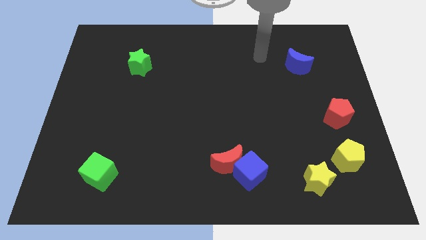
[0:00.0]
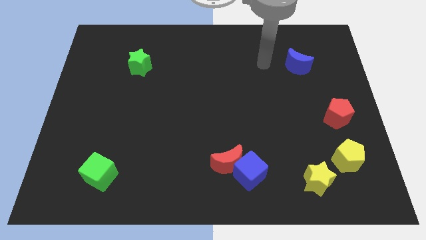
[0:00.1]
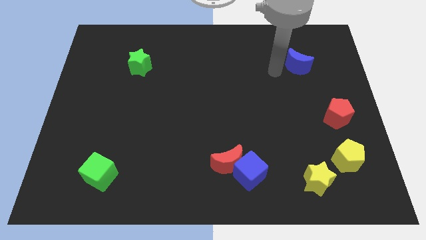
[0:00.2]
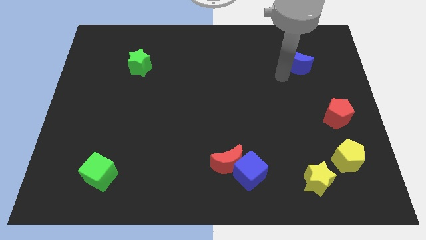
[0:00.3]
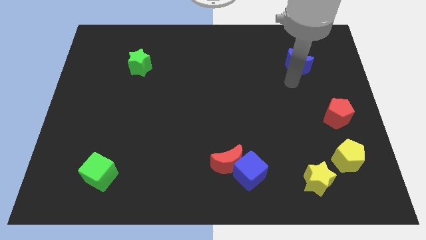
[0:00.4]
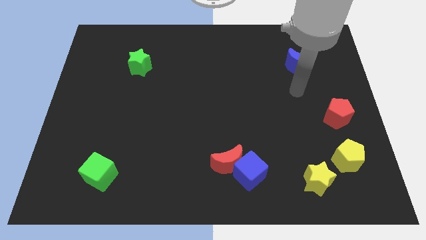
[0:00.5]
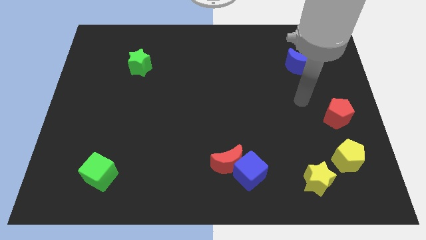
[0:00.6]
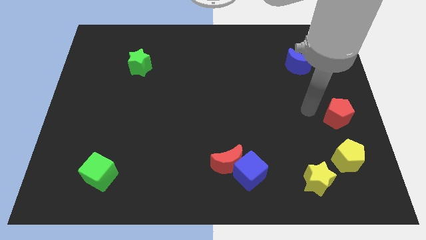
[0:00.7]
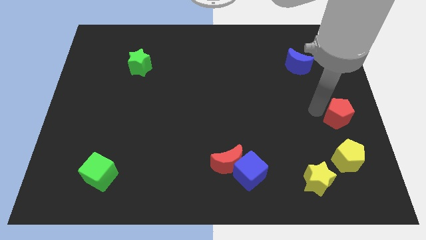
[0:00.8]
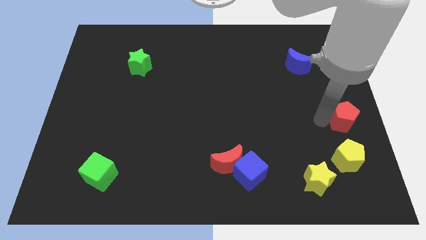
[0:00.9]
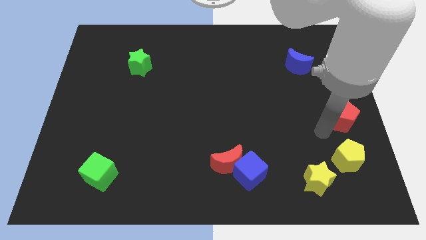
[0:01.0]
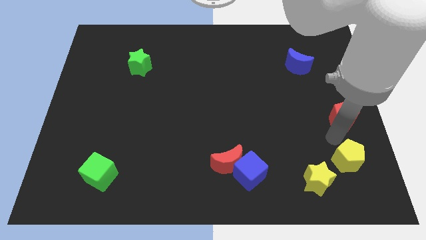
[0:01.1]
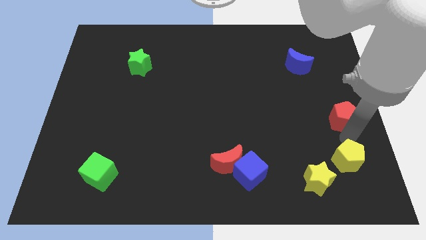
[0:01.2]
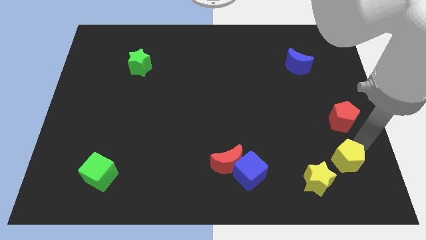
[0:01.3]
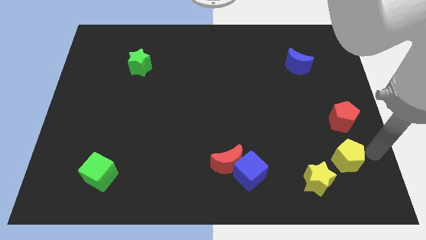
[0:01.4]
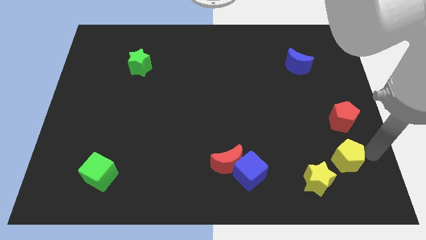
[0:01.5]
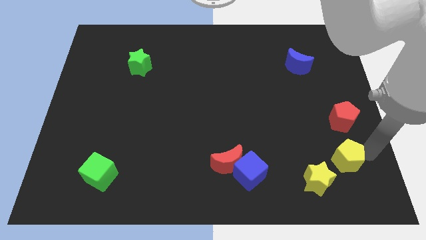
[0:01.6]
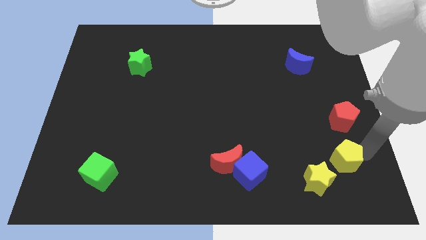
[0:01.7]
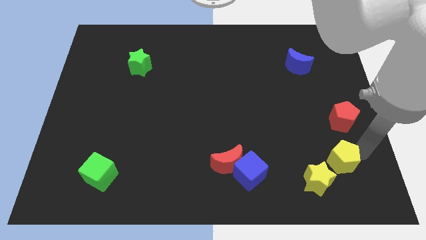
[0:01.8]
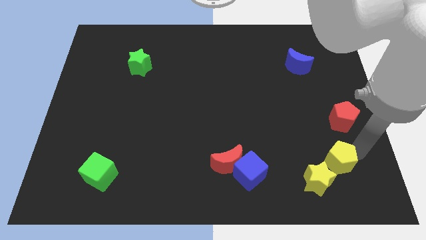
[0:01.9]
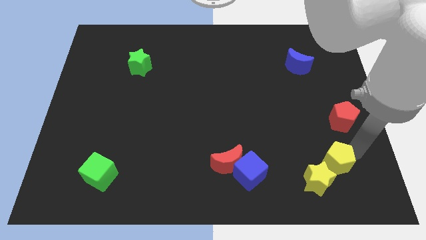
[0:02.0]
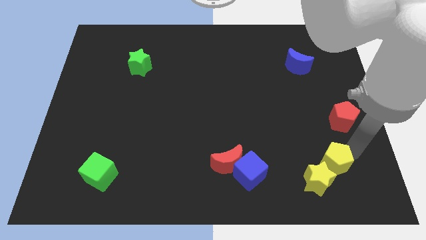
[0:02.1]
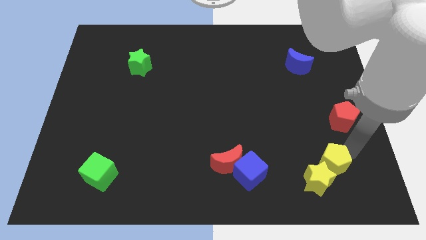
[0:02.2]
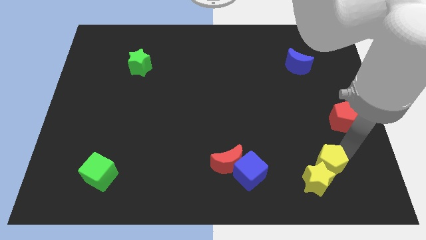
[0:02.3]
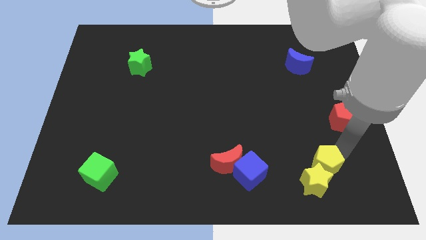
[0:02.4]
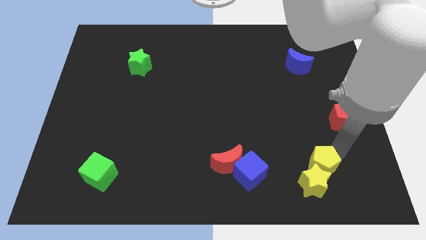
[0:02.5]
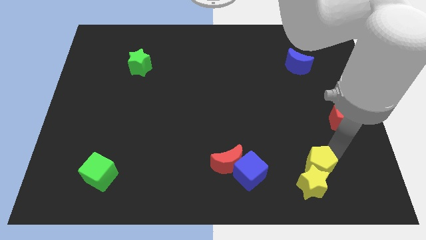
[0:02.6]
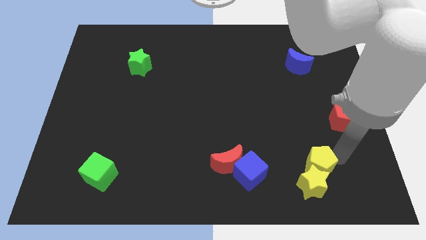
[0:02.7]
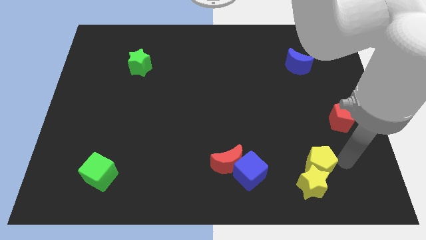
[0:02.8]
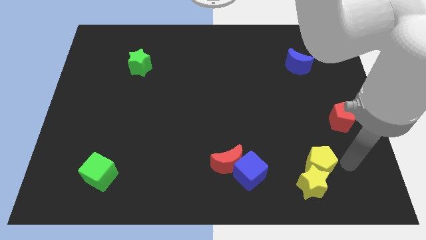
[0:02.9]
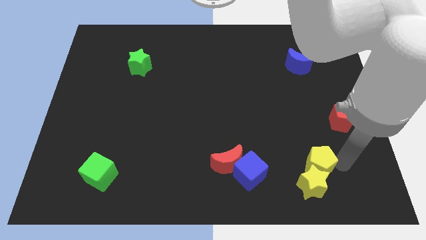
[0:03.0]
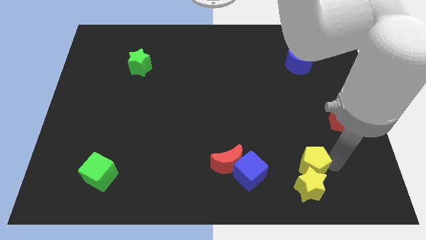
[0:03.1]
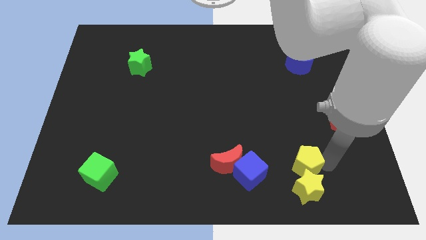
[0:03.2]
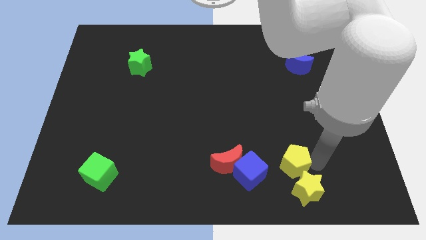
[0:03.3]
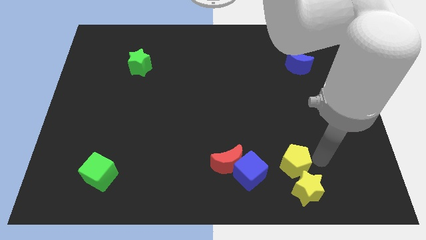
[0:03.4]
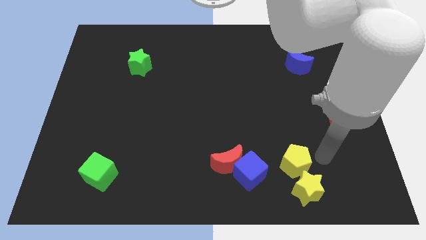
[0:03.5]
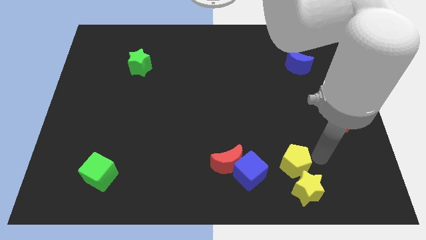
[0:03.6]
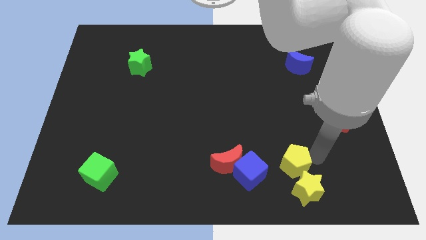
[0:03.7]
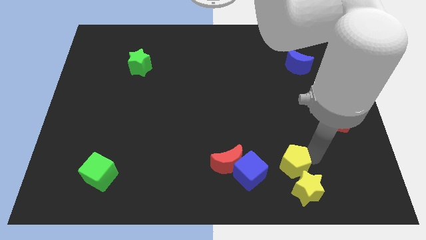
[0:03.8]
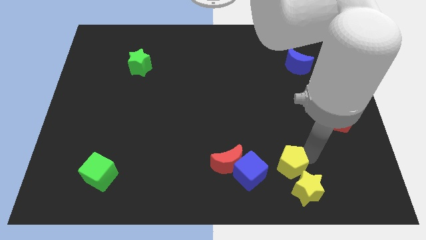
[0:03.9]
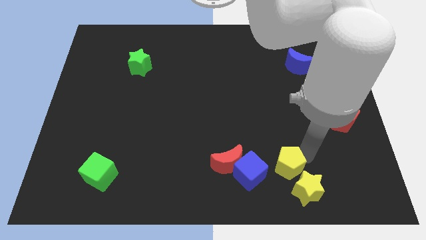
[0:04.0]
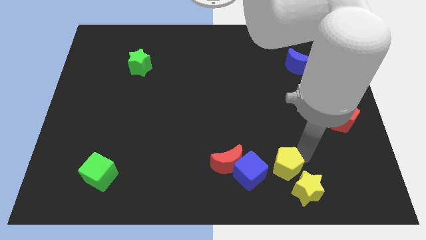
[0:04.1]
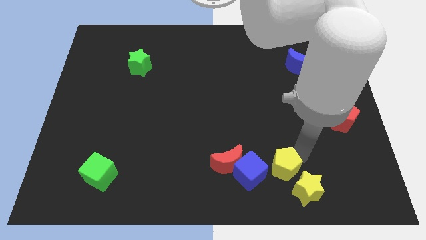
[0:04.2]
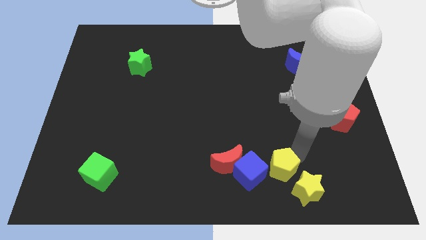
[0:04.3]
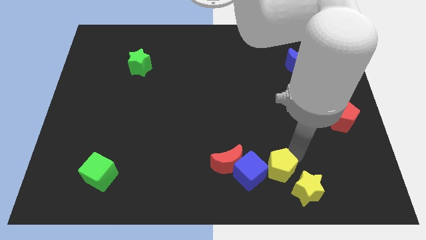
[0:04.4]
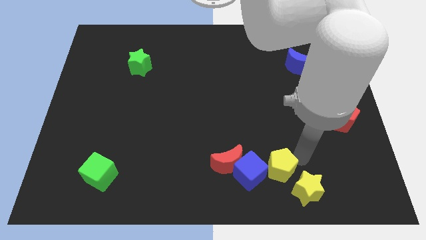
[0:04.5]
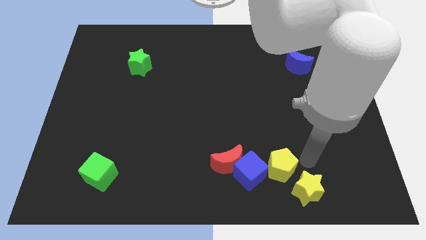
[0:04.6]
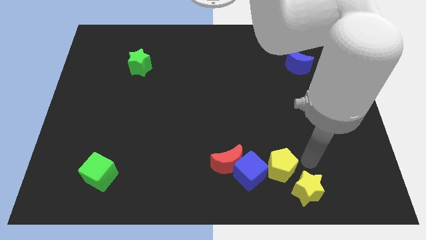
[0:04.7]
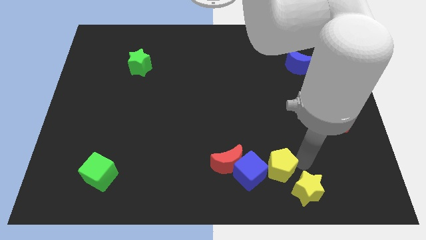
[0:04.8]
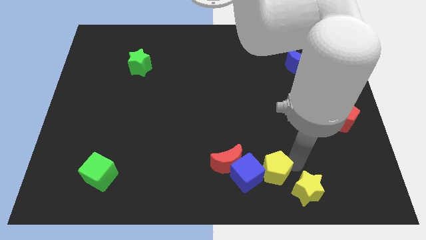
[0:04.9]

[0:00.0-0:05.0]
push the yellow pentagon to the blue cube

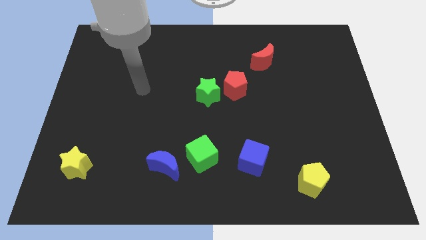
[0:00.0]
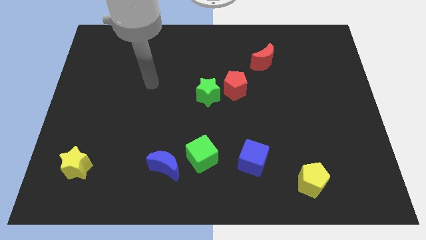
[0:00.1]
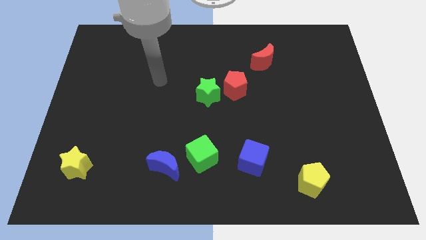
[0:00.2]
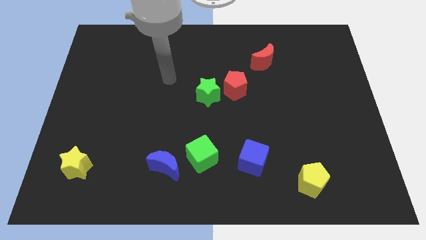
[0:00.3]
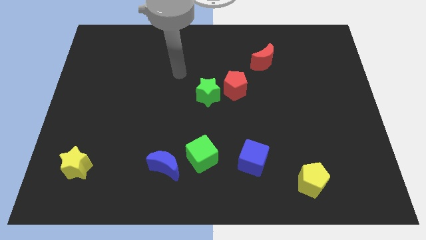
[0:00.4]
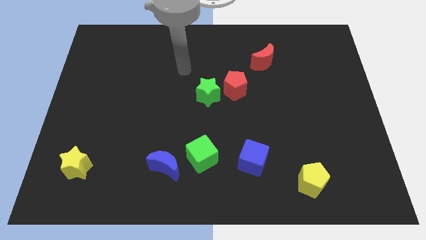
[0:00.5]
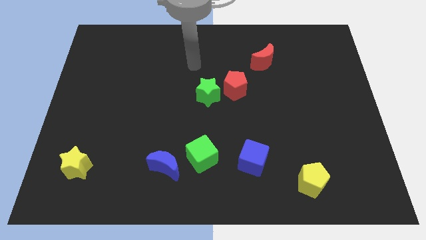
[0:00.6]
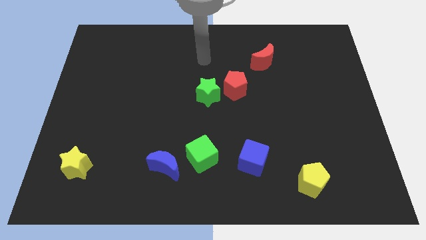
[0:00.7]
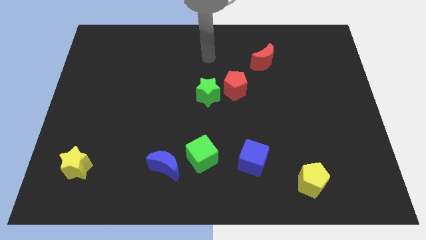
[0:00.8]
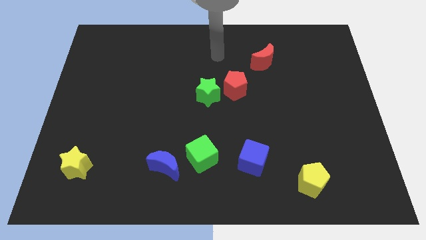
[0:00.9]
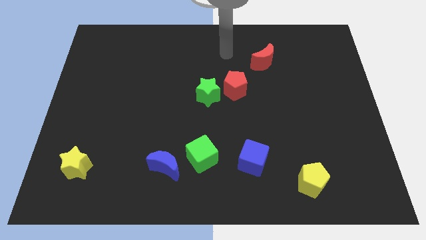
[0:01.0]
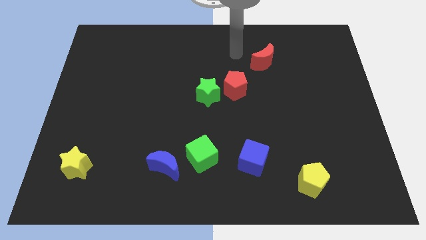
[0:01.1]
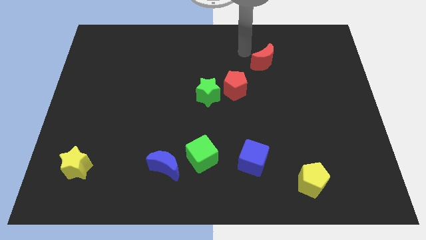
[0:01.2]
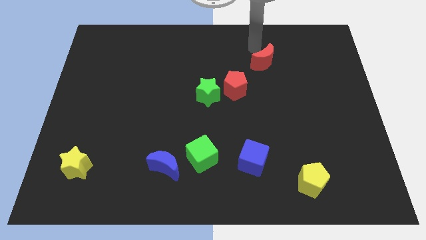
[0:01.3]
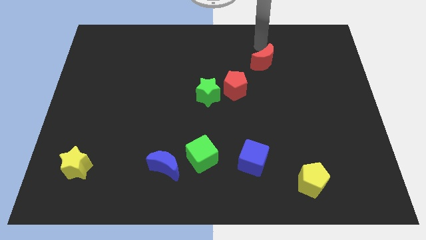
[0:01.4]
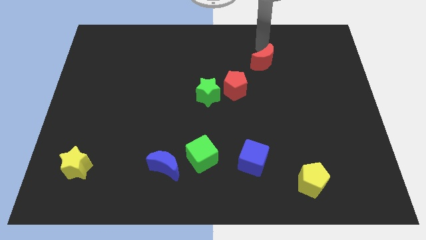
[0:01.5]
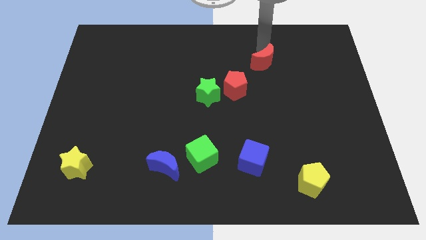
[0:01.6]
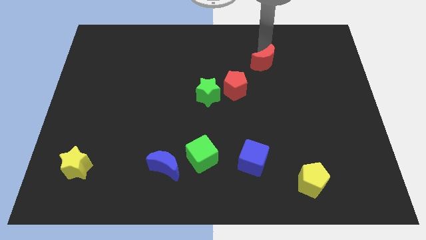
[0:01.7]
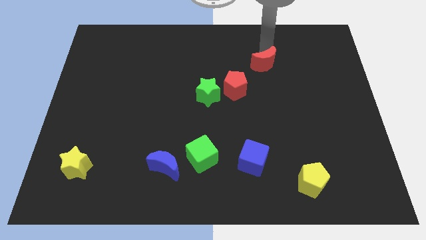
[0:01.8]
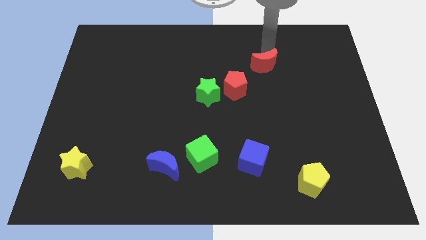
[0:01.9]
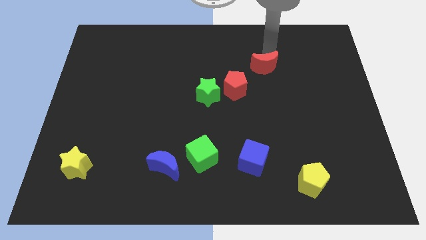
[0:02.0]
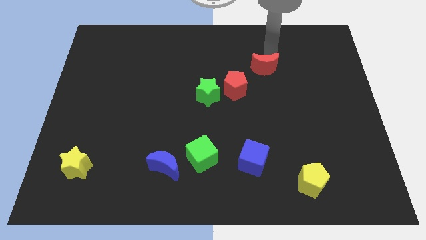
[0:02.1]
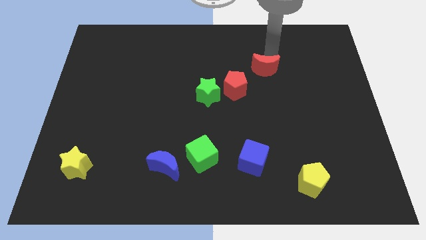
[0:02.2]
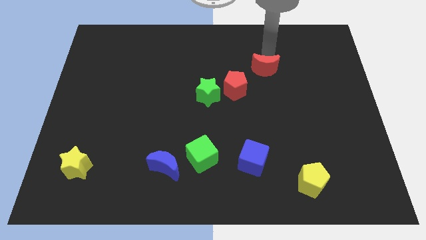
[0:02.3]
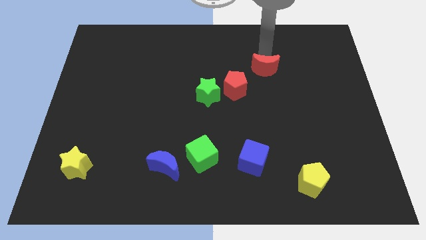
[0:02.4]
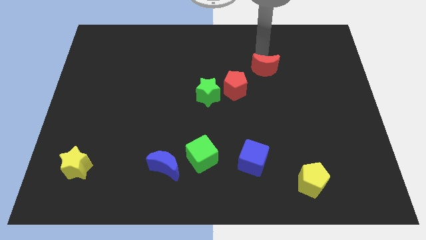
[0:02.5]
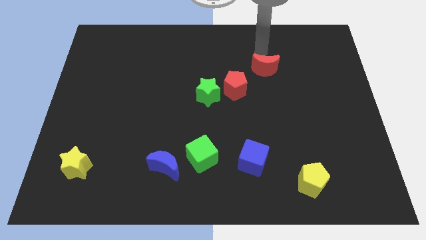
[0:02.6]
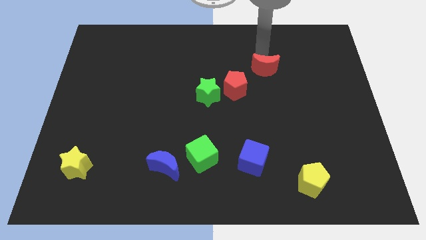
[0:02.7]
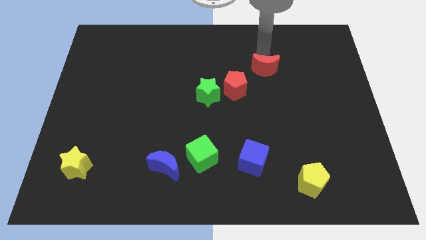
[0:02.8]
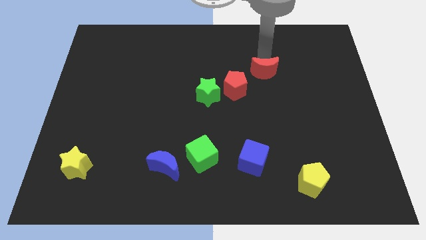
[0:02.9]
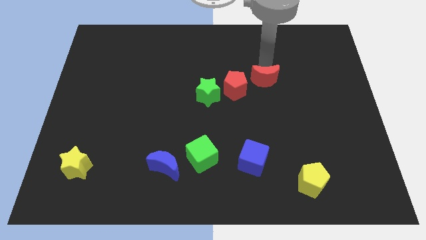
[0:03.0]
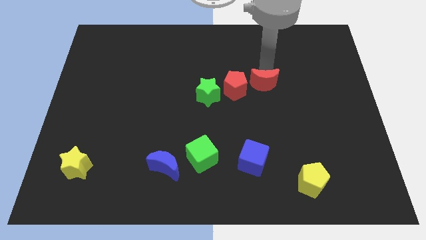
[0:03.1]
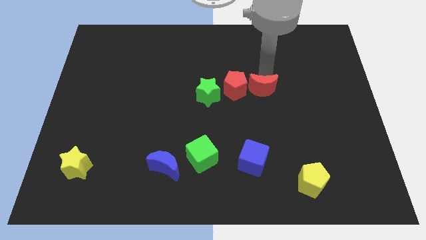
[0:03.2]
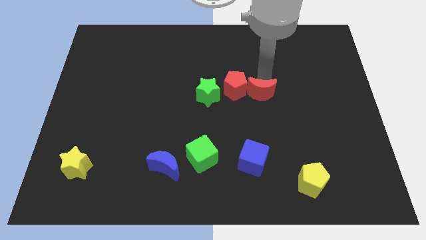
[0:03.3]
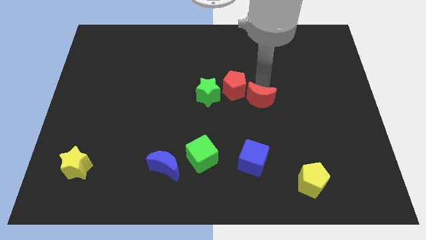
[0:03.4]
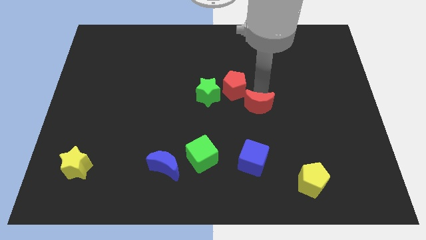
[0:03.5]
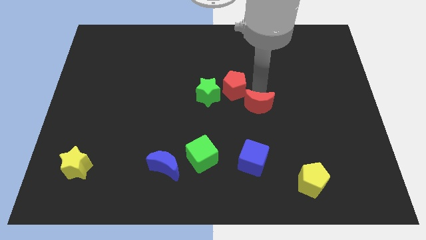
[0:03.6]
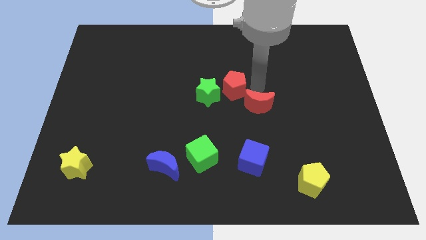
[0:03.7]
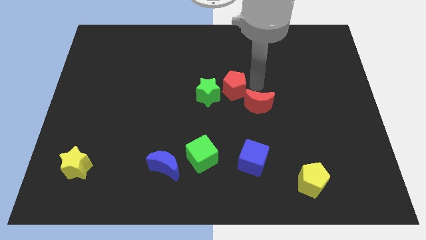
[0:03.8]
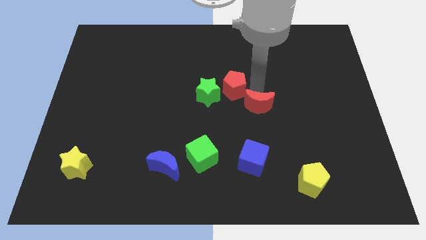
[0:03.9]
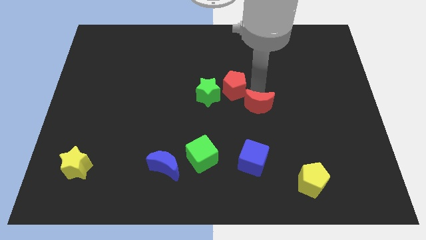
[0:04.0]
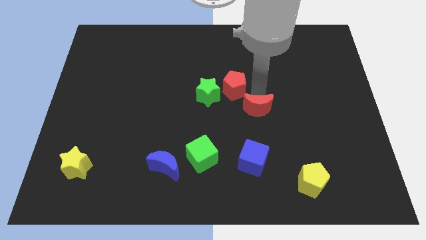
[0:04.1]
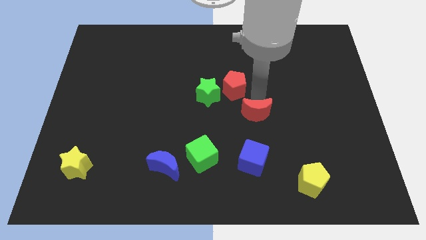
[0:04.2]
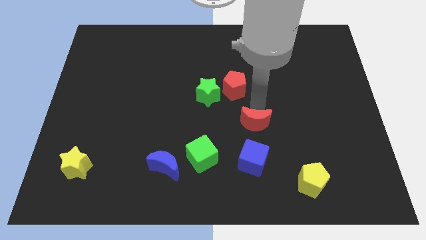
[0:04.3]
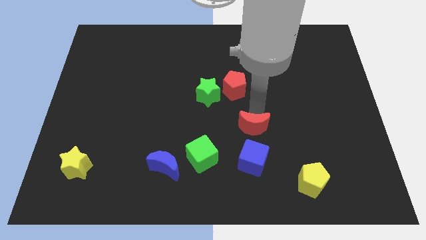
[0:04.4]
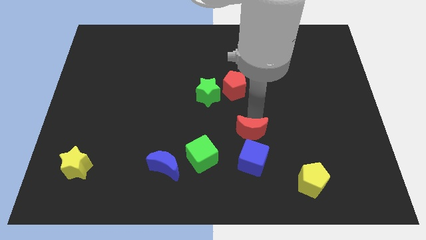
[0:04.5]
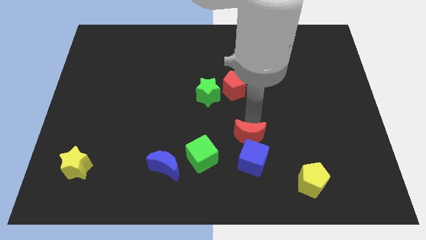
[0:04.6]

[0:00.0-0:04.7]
slide the red moon towards the blue cube
